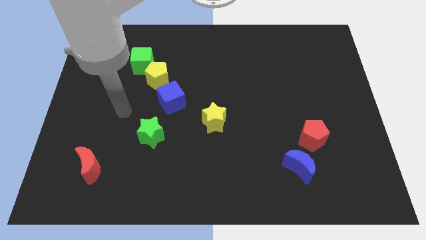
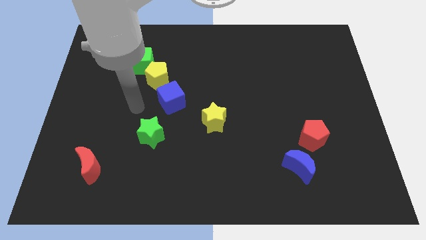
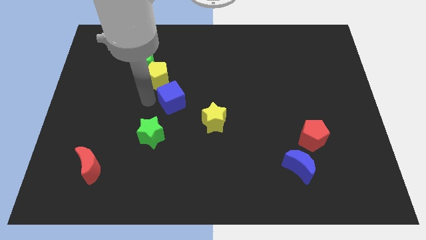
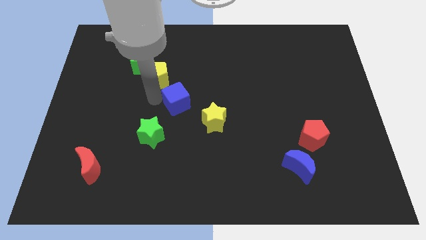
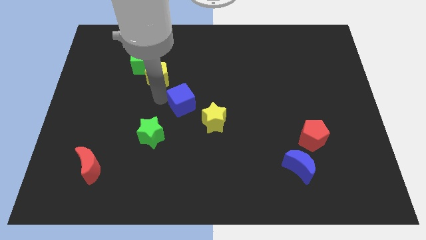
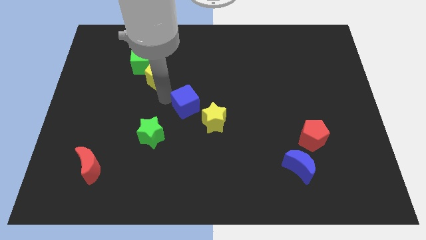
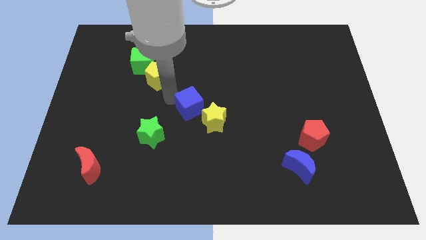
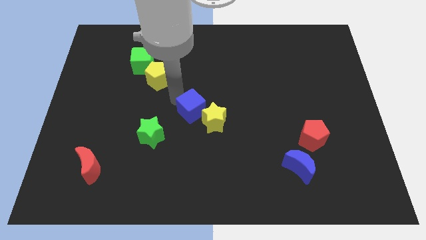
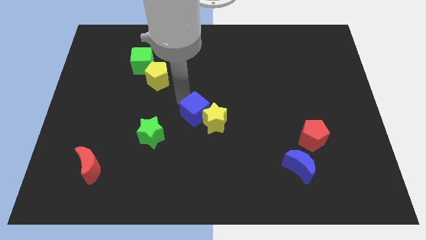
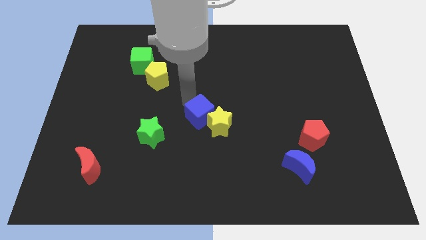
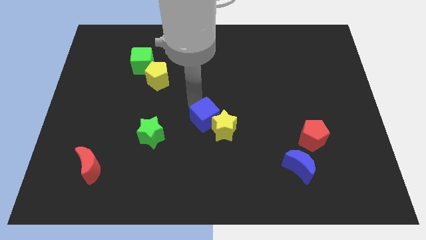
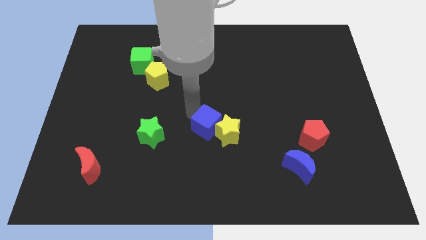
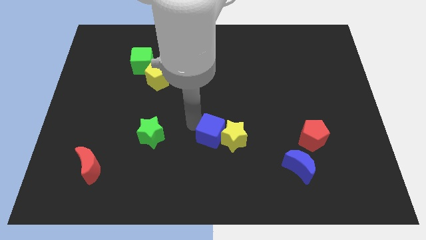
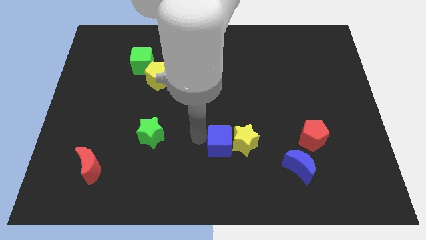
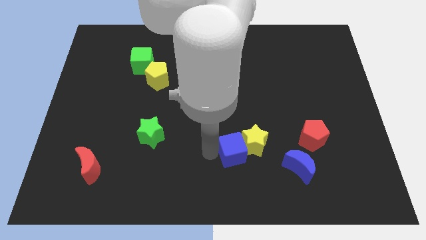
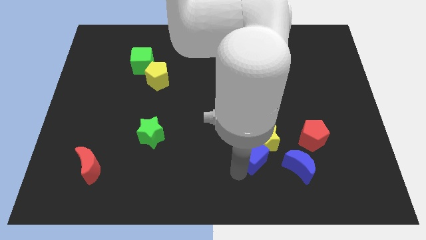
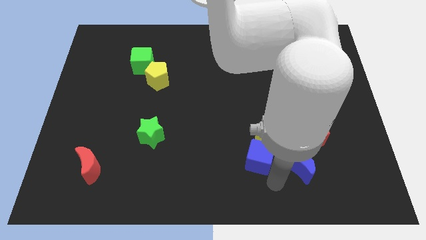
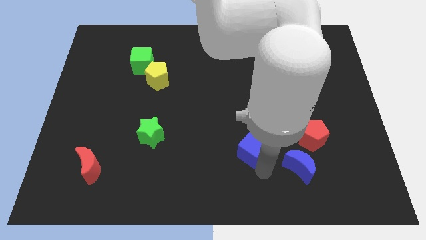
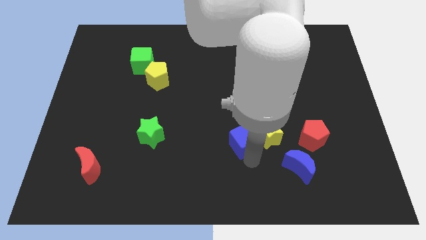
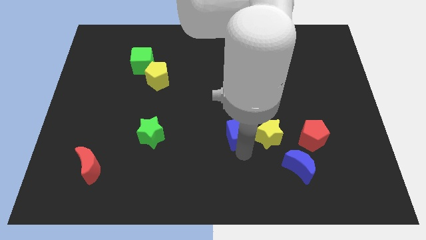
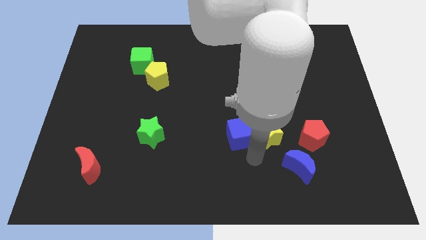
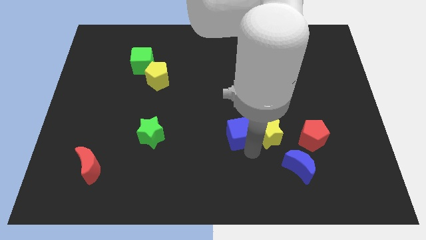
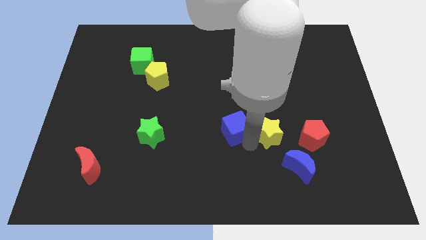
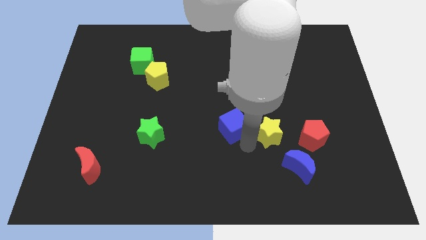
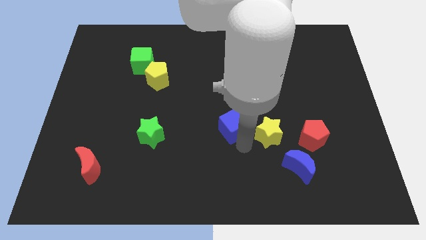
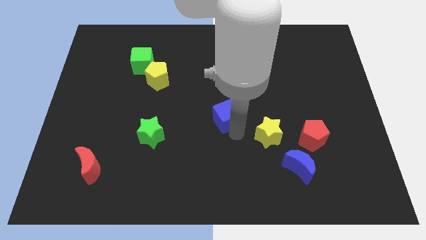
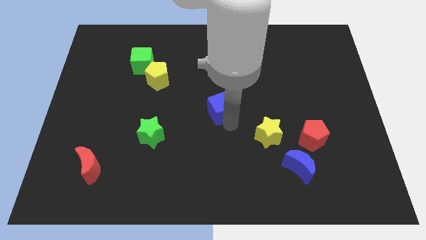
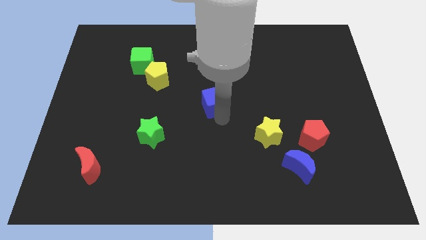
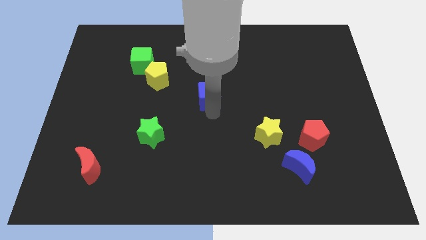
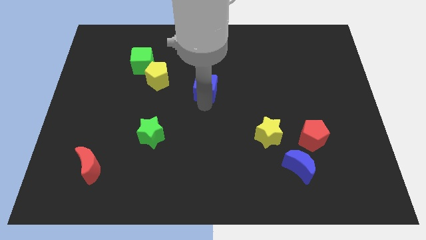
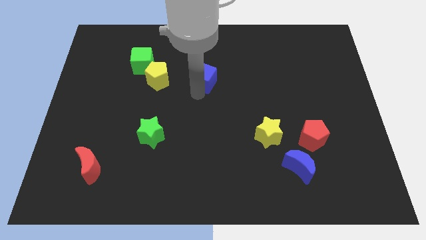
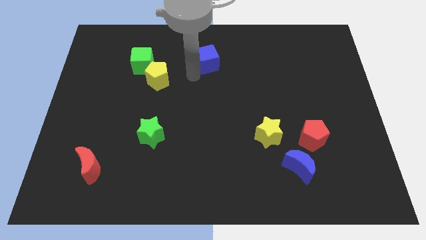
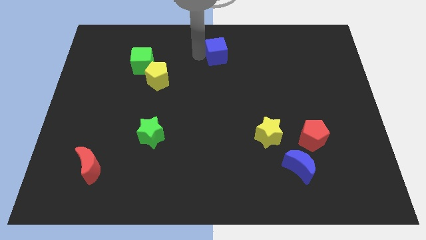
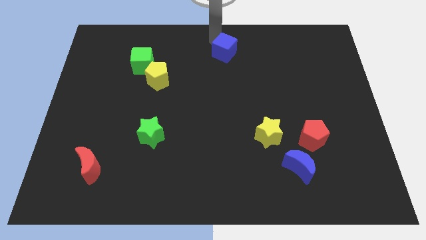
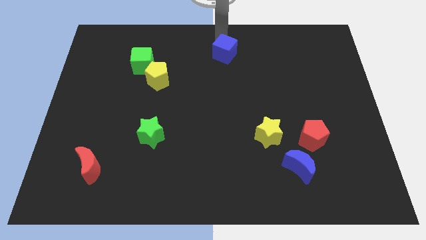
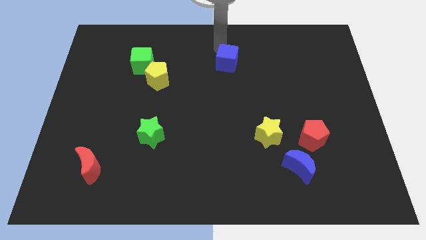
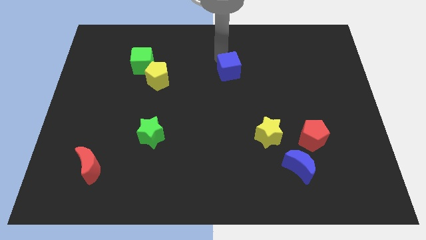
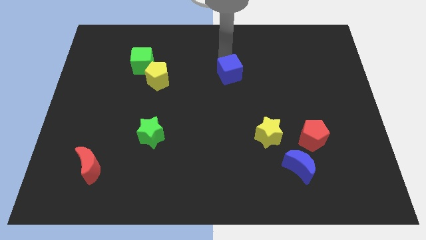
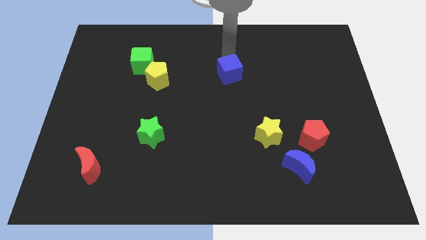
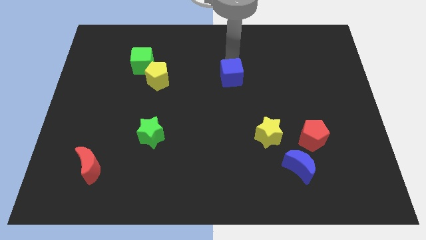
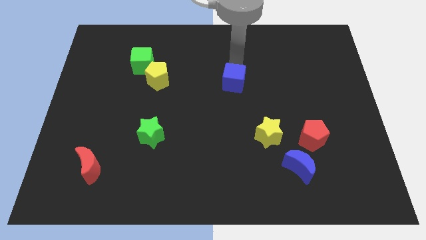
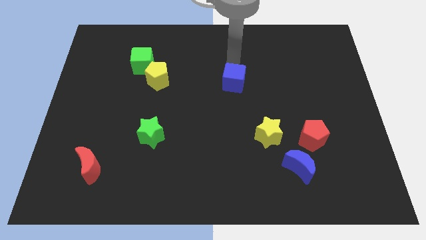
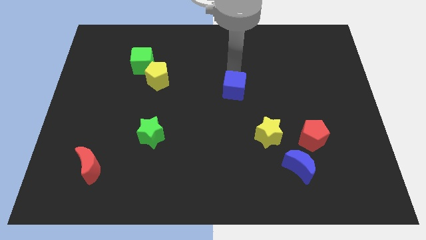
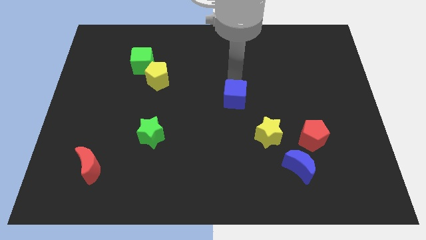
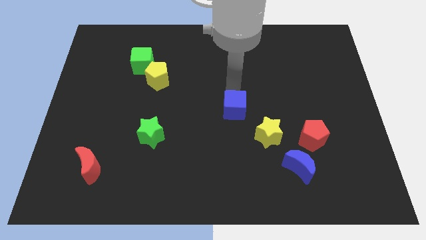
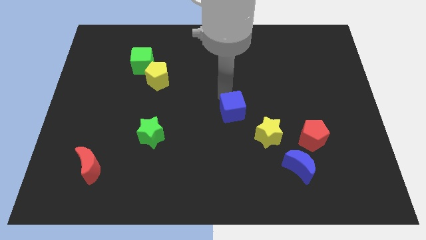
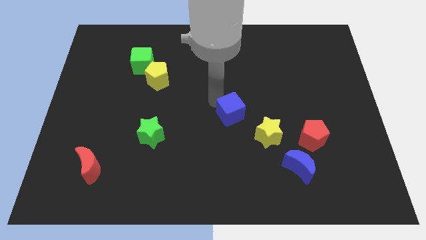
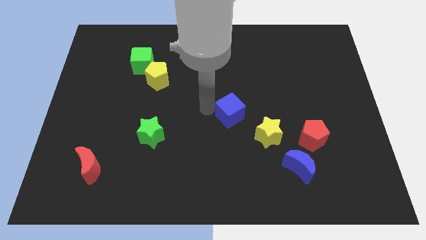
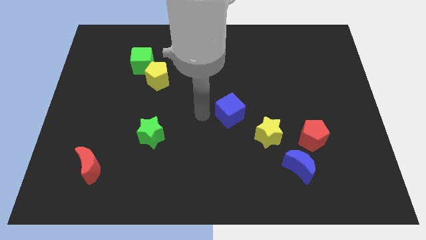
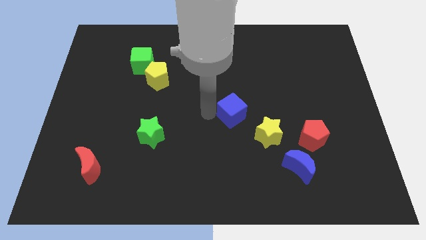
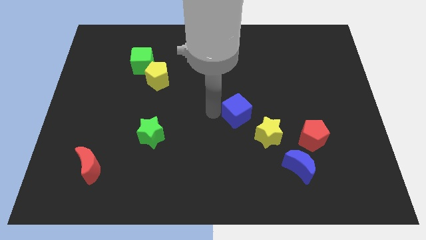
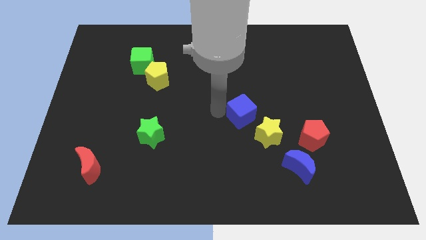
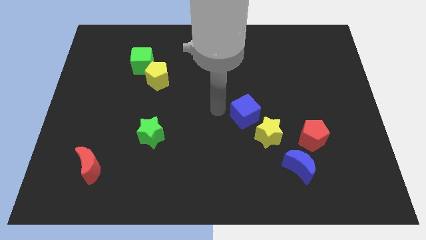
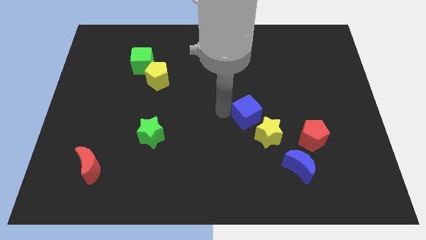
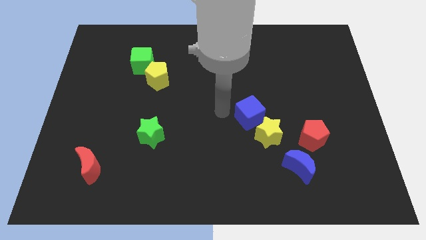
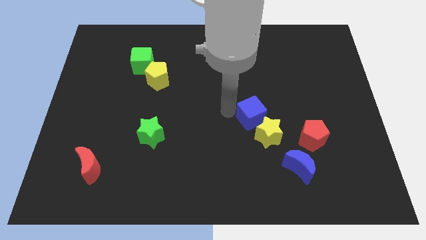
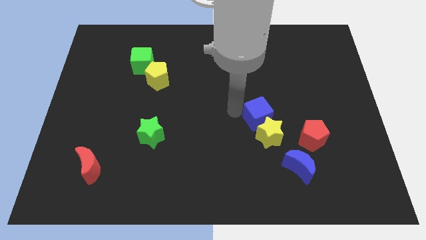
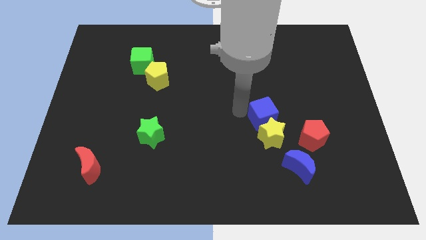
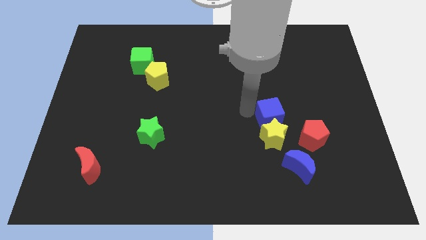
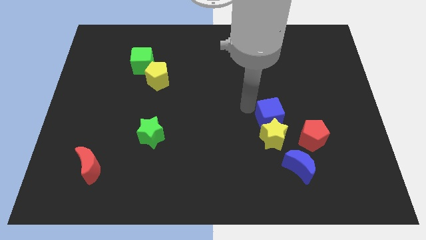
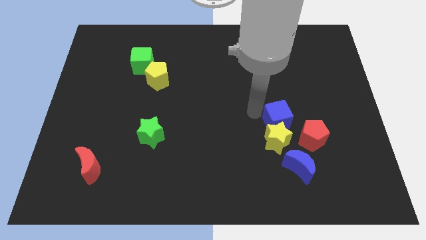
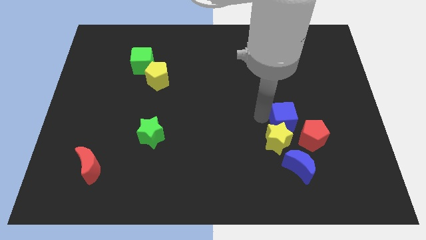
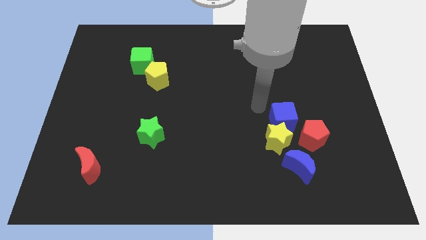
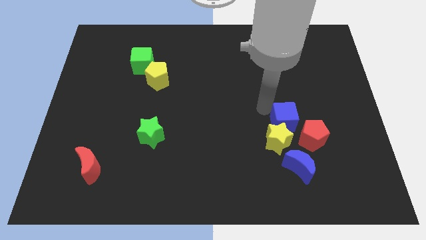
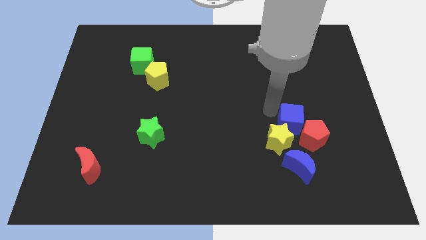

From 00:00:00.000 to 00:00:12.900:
move the blue cube towards the red pentagon

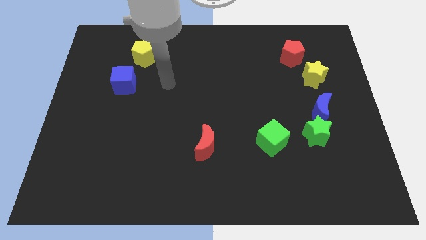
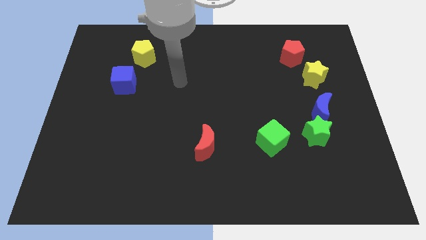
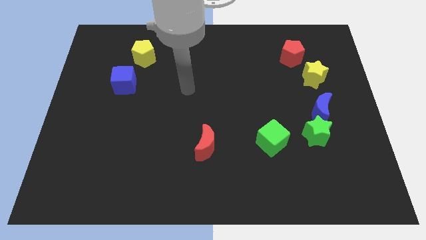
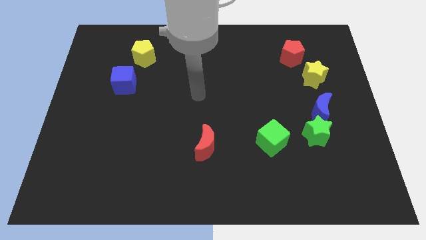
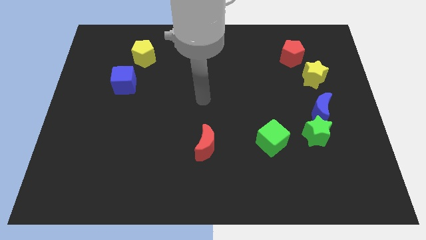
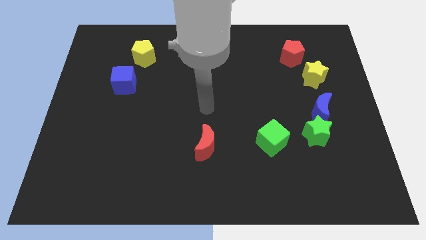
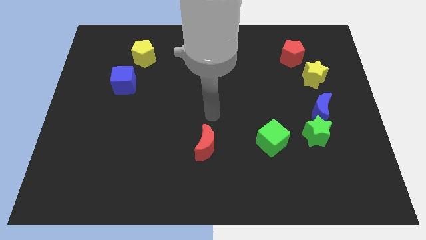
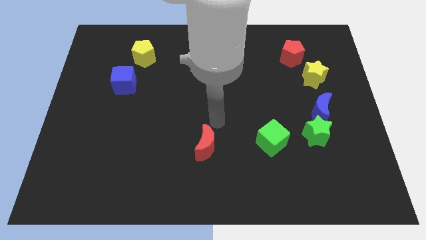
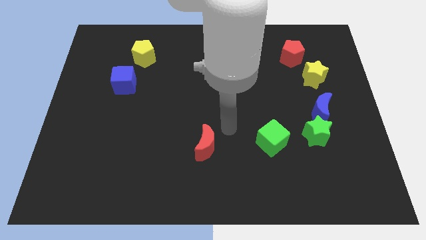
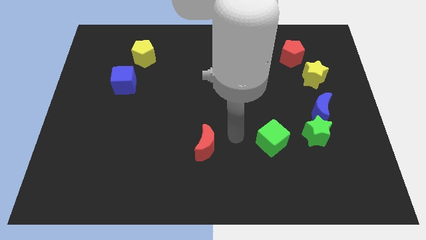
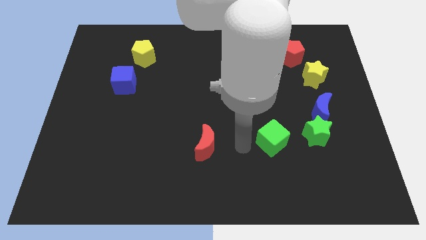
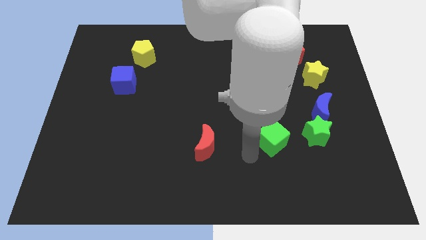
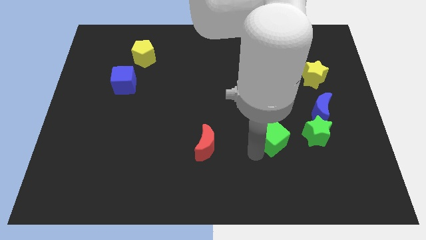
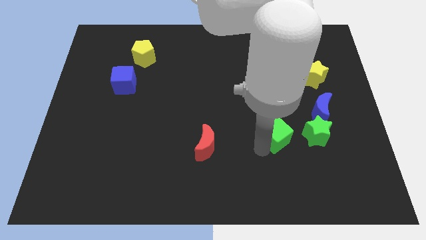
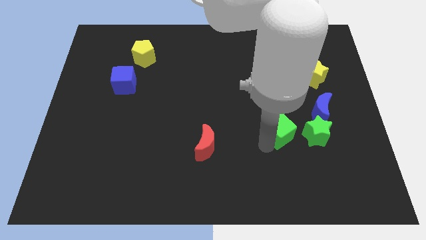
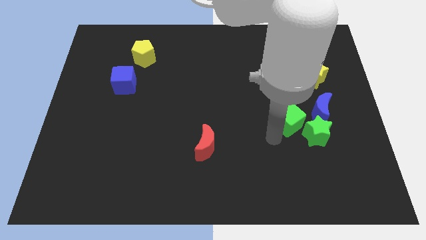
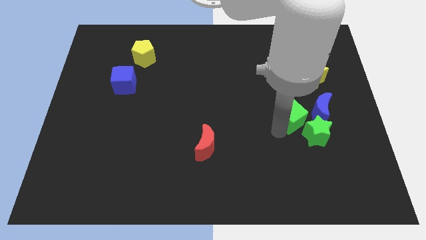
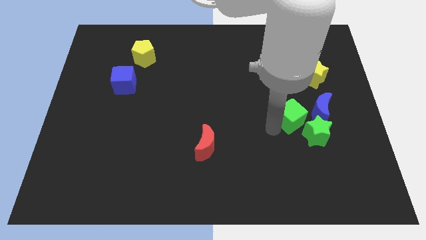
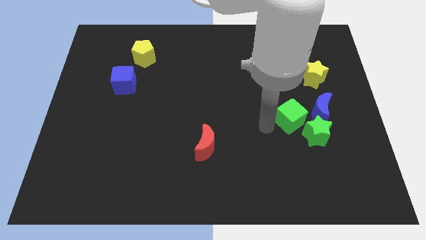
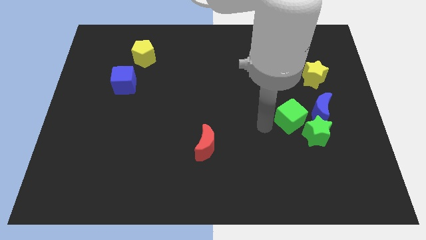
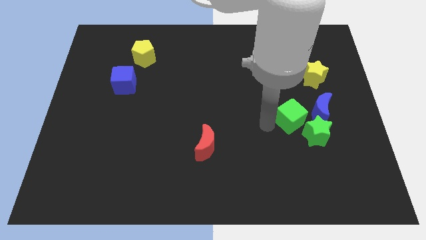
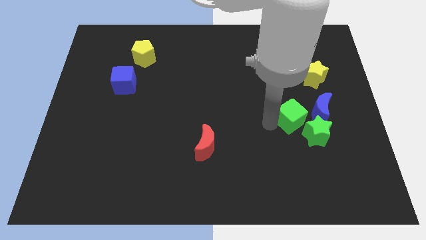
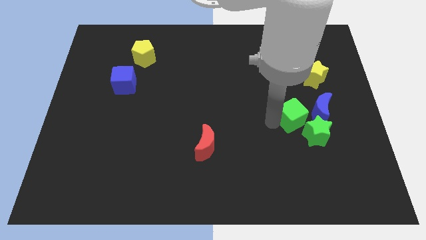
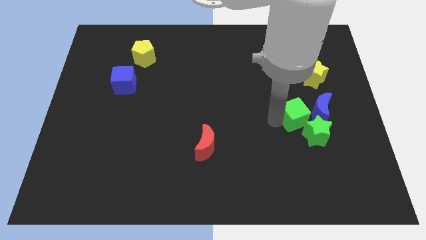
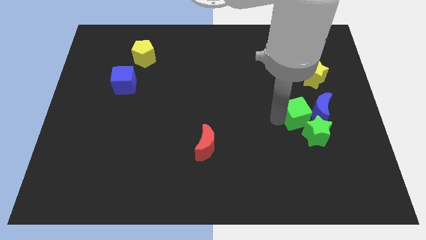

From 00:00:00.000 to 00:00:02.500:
slide the green cube next to the blue moon
